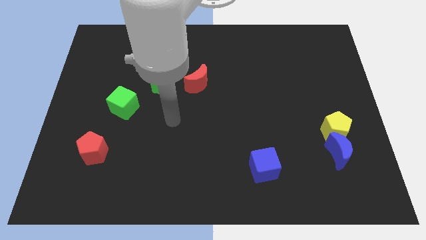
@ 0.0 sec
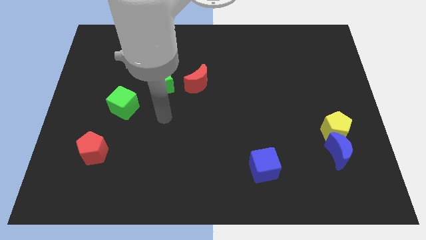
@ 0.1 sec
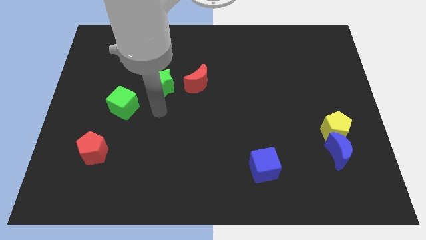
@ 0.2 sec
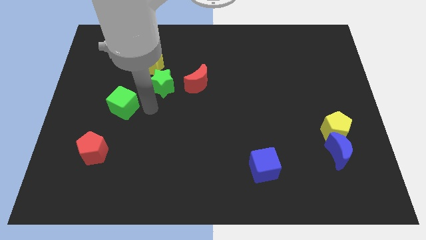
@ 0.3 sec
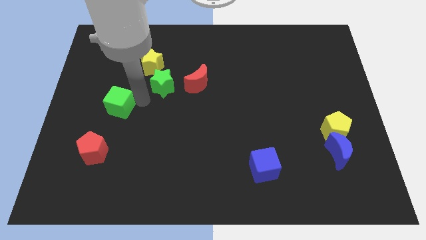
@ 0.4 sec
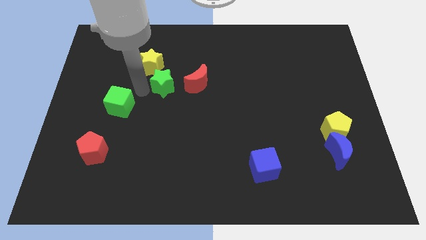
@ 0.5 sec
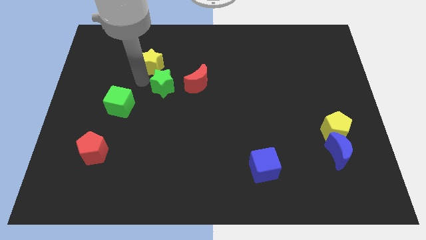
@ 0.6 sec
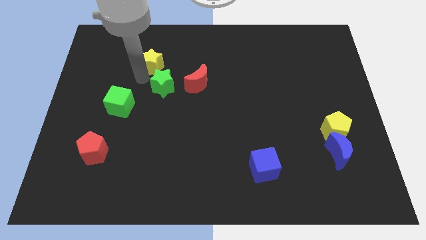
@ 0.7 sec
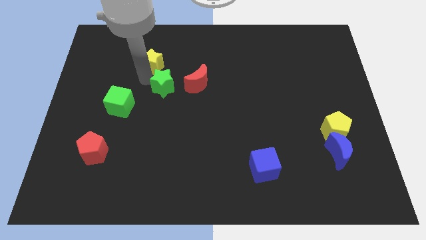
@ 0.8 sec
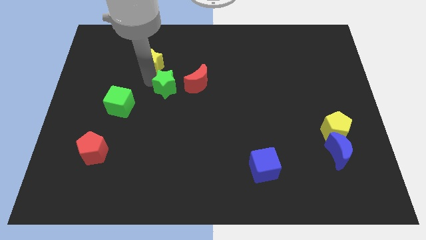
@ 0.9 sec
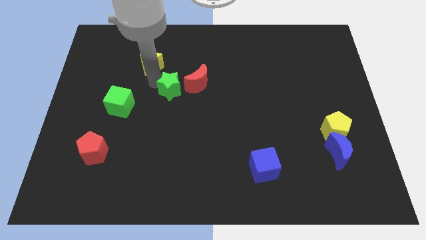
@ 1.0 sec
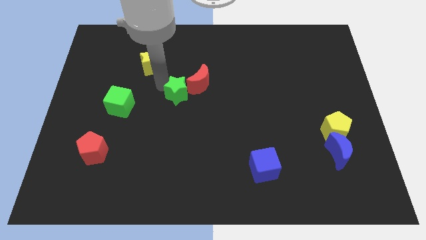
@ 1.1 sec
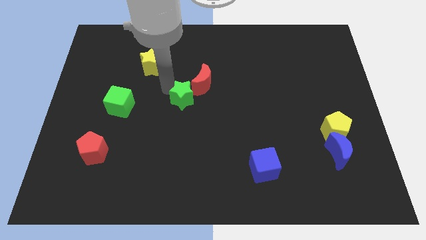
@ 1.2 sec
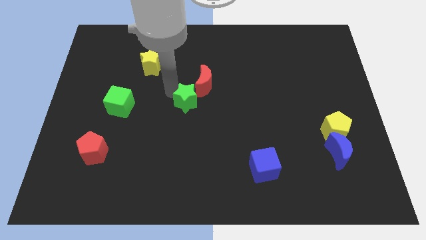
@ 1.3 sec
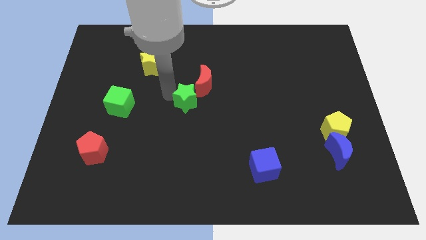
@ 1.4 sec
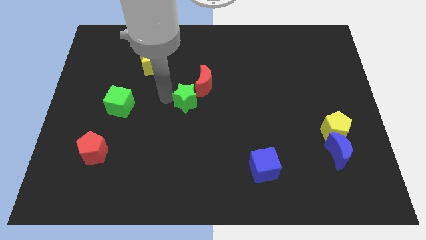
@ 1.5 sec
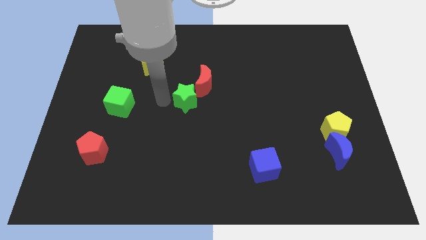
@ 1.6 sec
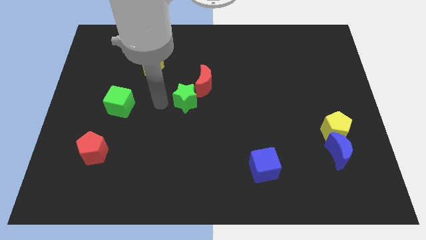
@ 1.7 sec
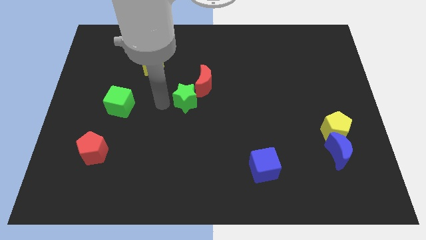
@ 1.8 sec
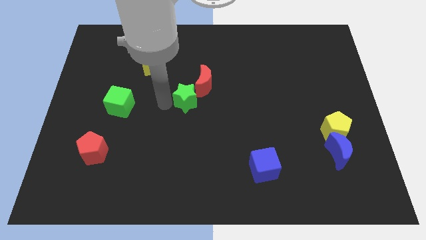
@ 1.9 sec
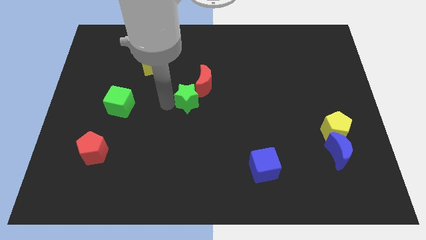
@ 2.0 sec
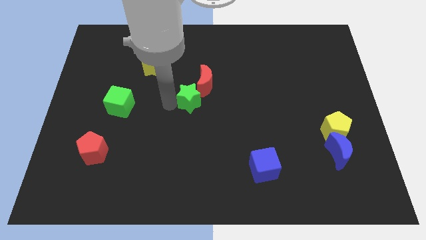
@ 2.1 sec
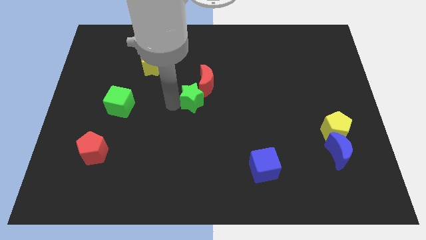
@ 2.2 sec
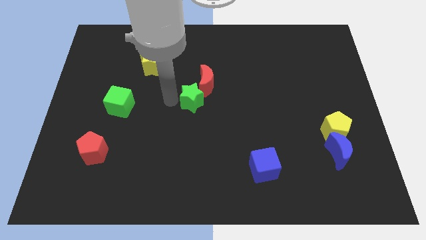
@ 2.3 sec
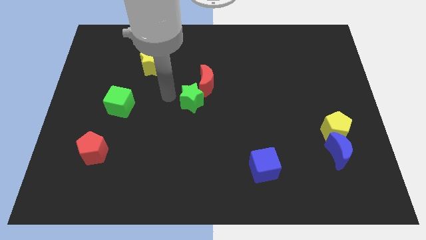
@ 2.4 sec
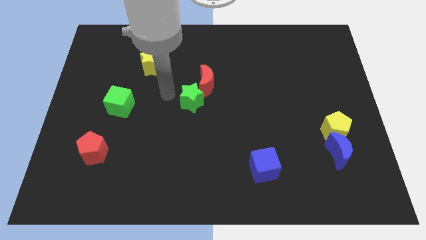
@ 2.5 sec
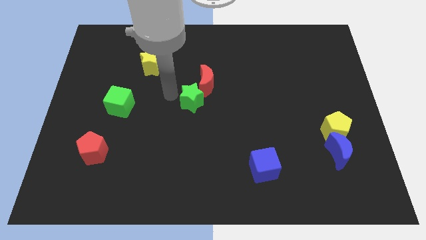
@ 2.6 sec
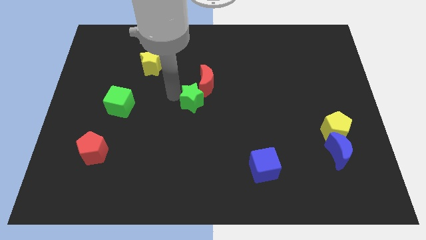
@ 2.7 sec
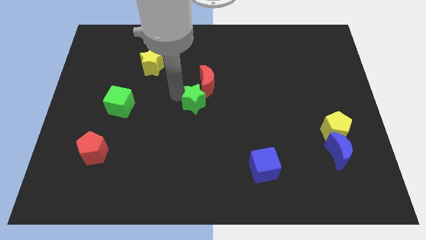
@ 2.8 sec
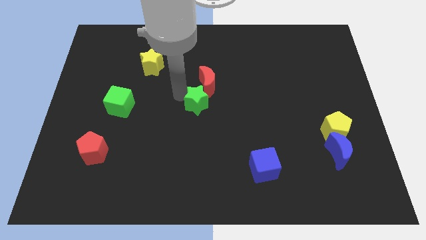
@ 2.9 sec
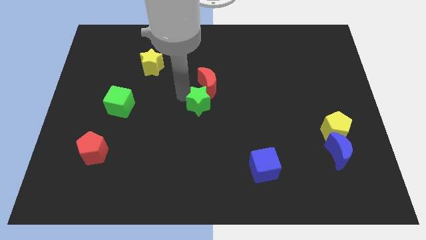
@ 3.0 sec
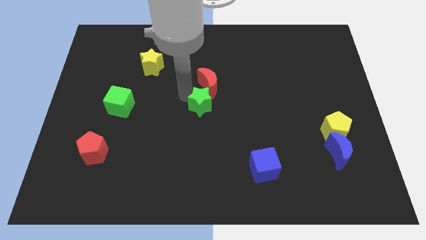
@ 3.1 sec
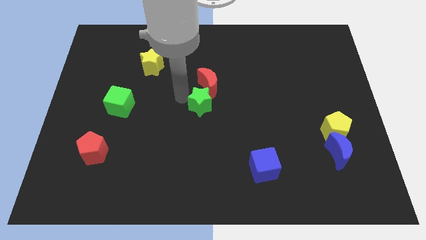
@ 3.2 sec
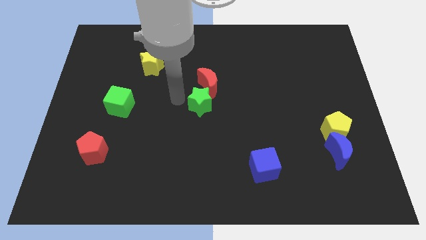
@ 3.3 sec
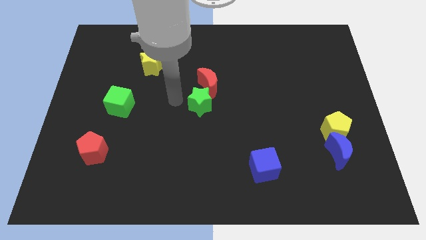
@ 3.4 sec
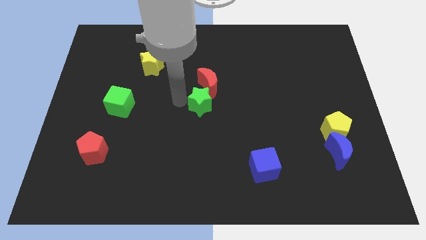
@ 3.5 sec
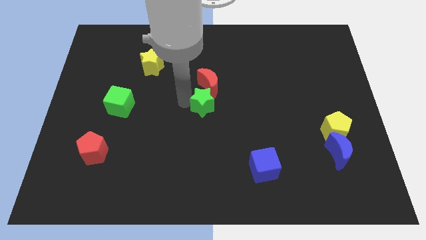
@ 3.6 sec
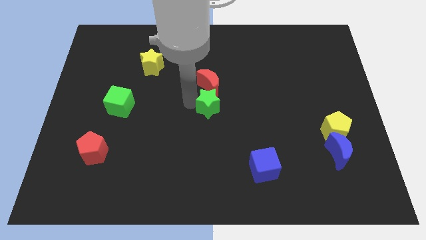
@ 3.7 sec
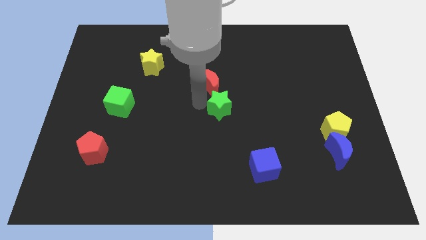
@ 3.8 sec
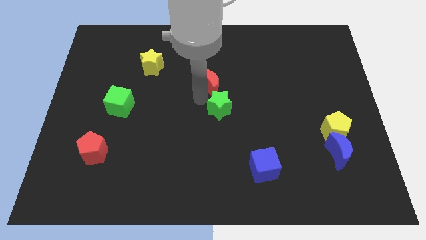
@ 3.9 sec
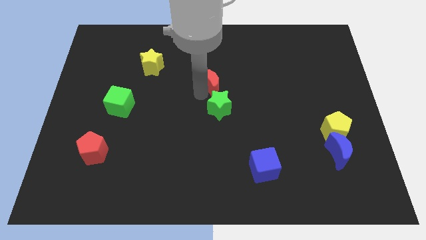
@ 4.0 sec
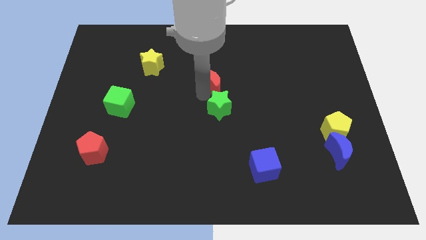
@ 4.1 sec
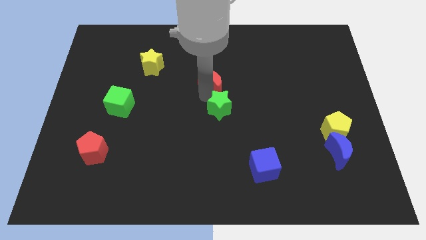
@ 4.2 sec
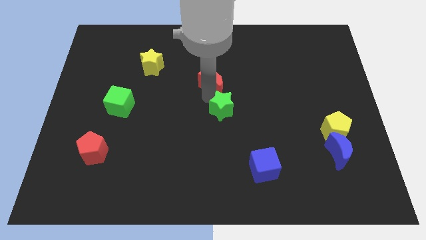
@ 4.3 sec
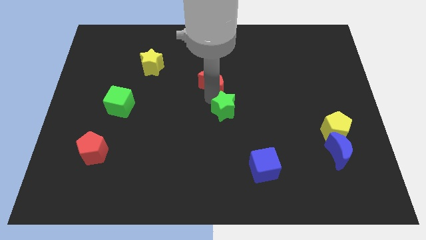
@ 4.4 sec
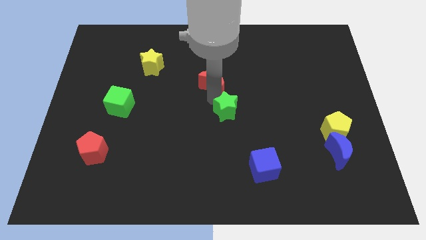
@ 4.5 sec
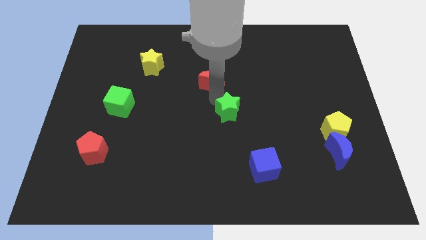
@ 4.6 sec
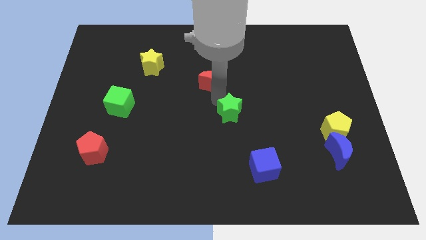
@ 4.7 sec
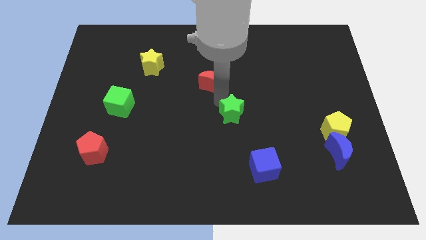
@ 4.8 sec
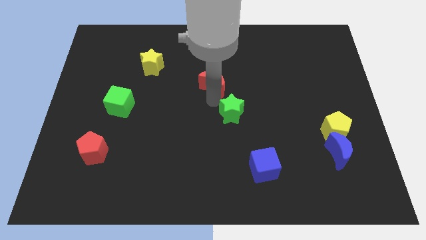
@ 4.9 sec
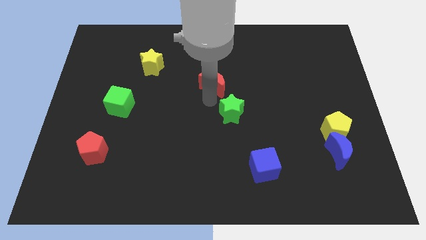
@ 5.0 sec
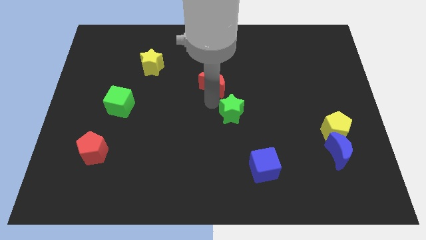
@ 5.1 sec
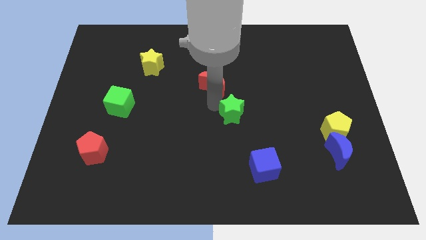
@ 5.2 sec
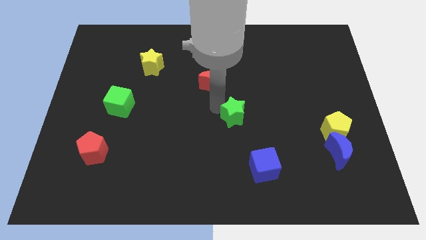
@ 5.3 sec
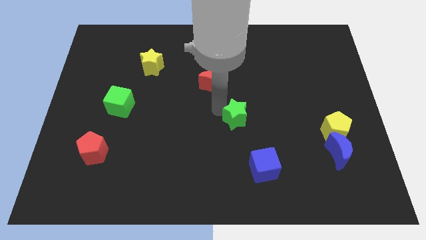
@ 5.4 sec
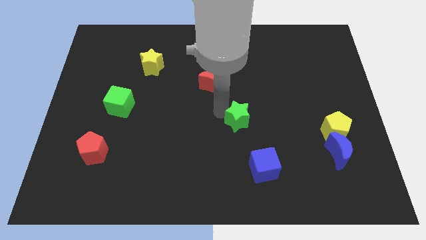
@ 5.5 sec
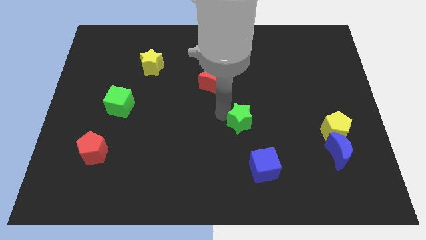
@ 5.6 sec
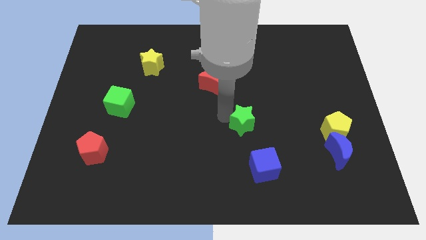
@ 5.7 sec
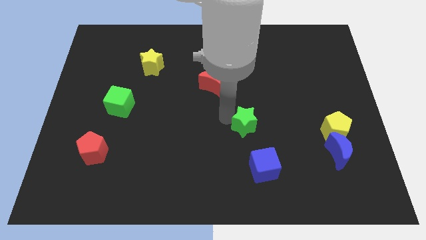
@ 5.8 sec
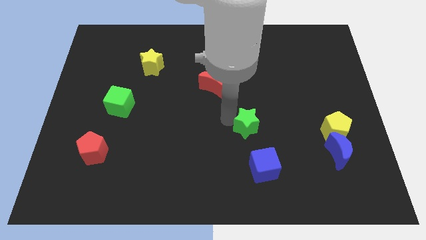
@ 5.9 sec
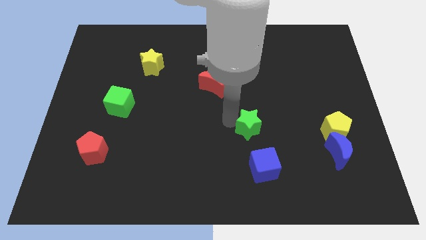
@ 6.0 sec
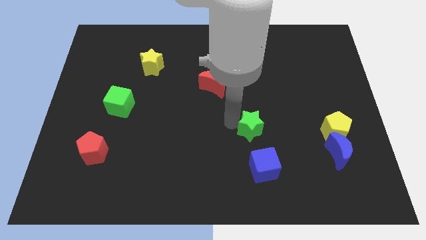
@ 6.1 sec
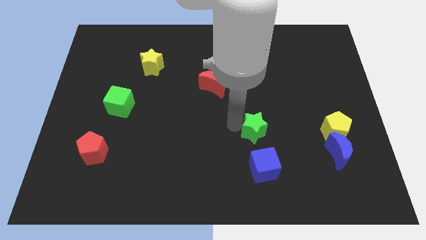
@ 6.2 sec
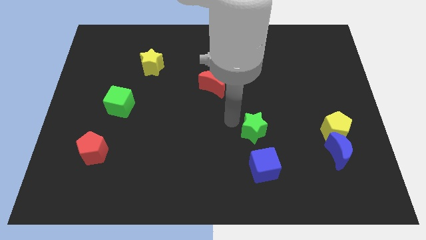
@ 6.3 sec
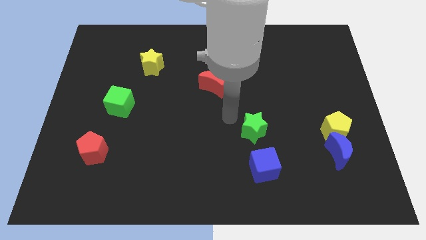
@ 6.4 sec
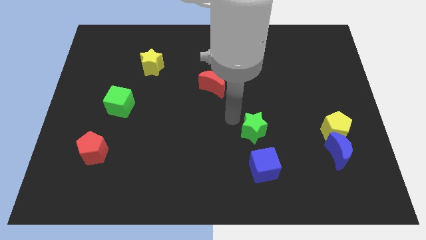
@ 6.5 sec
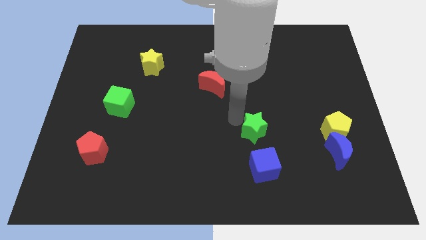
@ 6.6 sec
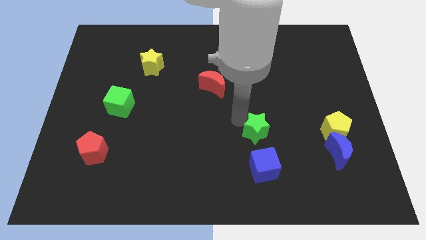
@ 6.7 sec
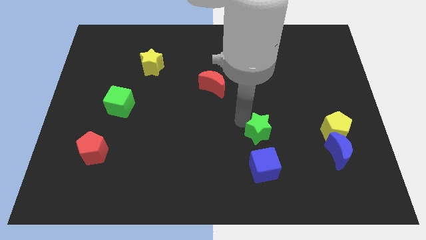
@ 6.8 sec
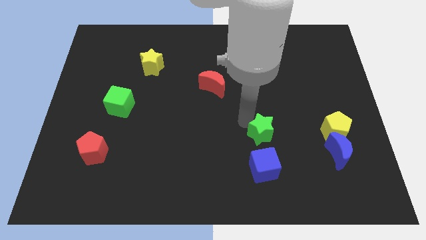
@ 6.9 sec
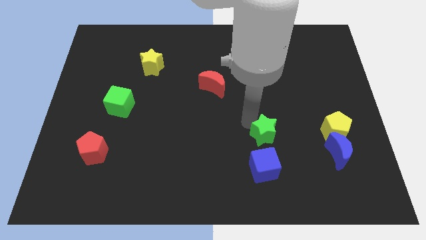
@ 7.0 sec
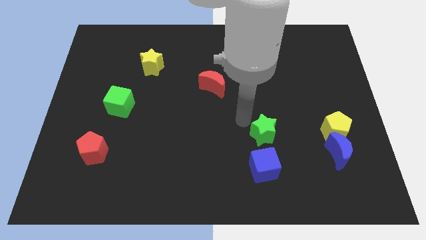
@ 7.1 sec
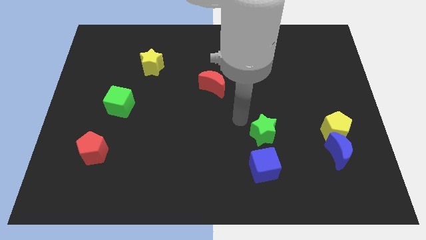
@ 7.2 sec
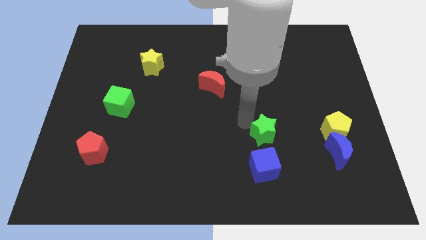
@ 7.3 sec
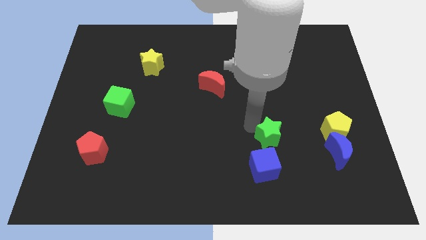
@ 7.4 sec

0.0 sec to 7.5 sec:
slide the green star to the top right of the blue cube
